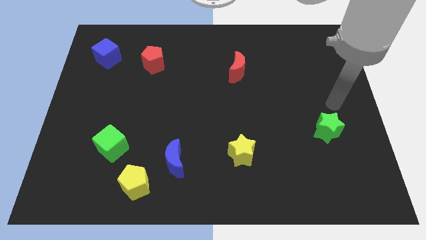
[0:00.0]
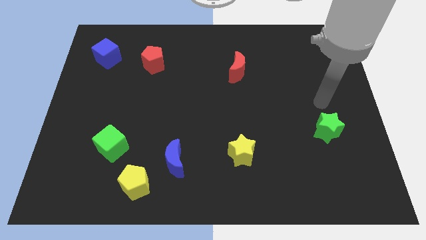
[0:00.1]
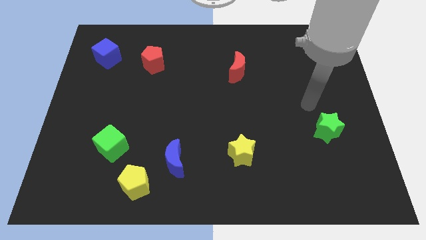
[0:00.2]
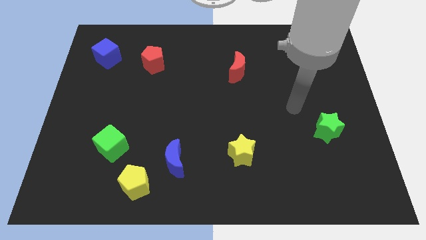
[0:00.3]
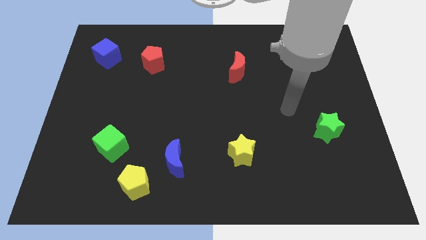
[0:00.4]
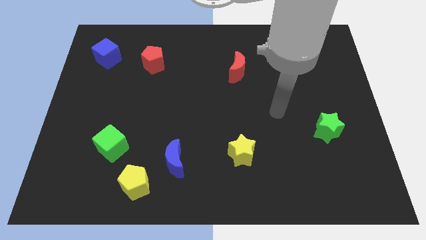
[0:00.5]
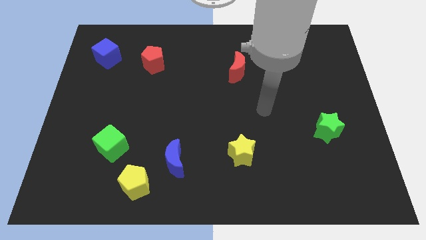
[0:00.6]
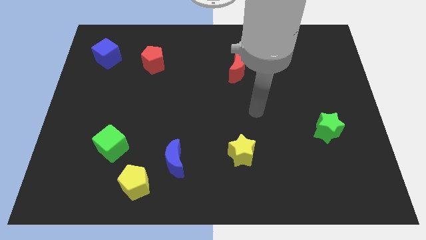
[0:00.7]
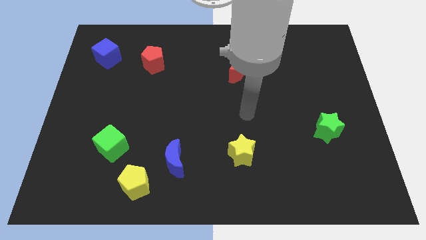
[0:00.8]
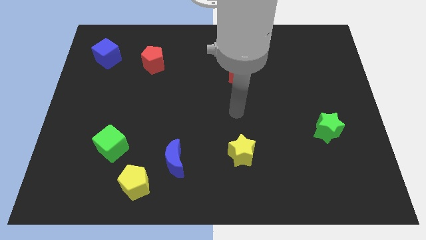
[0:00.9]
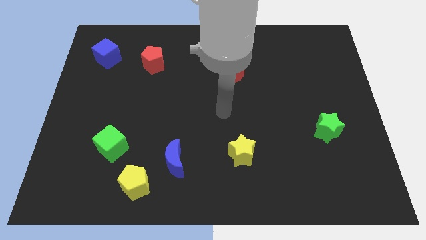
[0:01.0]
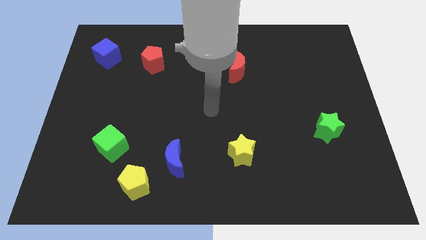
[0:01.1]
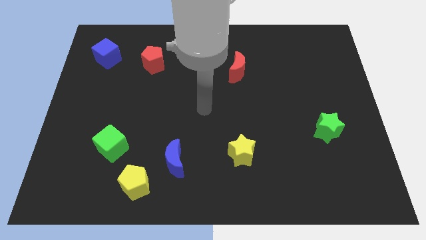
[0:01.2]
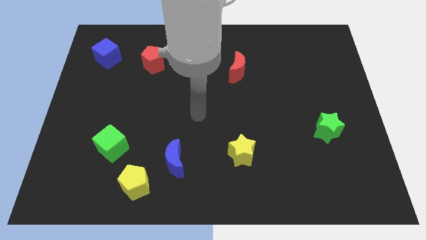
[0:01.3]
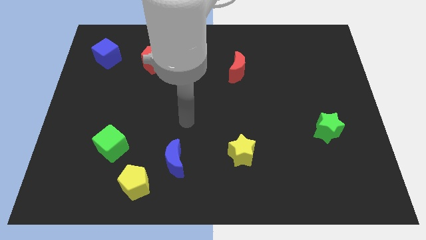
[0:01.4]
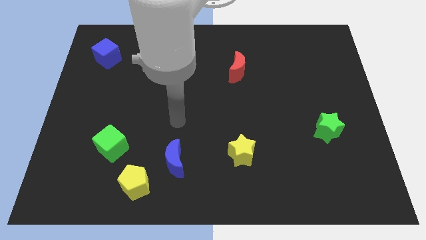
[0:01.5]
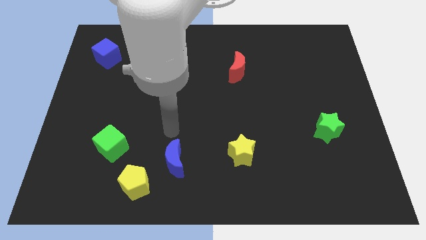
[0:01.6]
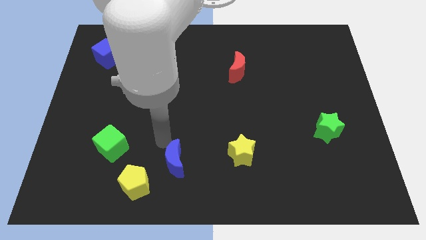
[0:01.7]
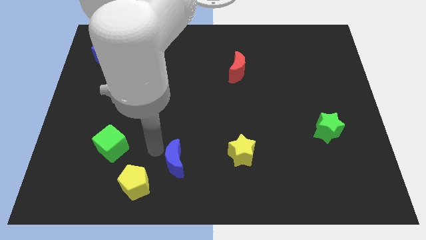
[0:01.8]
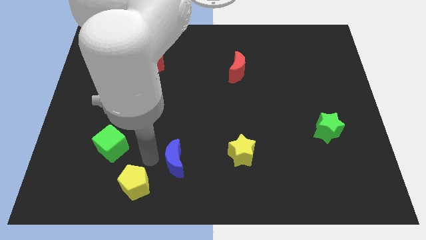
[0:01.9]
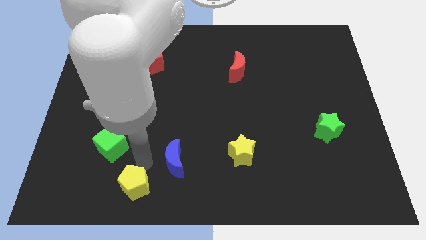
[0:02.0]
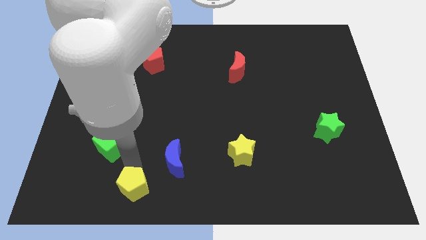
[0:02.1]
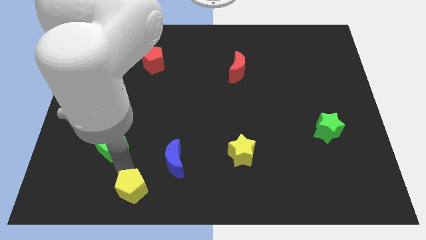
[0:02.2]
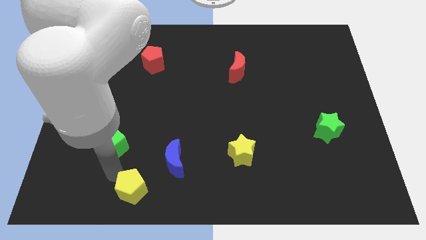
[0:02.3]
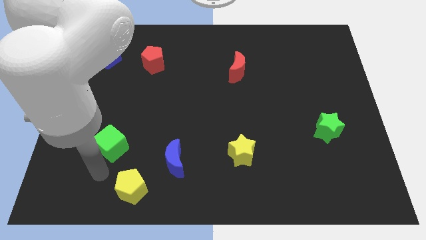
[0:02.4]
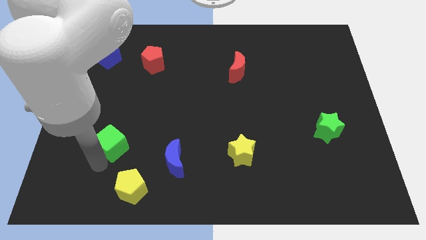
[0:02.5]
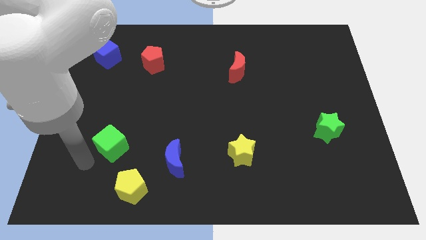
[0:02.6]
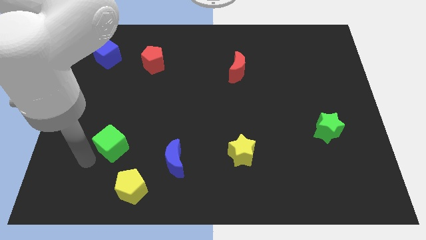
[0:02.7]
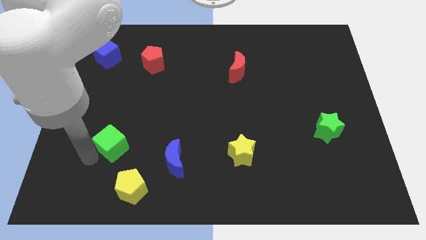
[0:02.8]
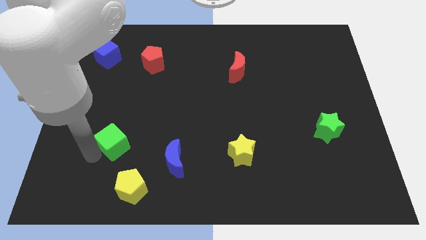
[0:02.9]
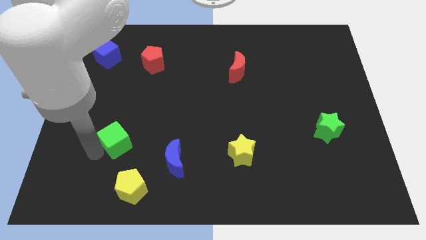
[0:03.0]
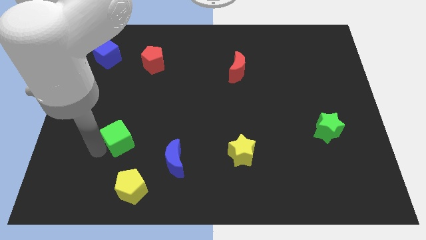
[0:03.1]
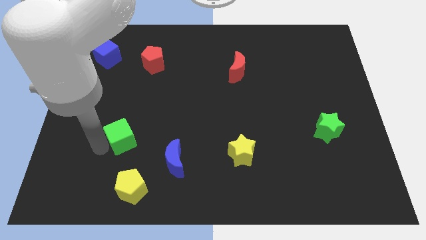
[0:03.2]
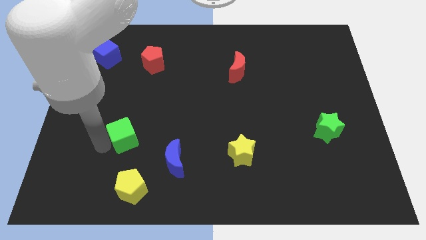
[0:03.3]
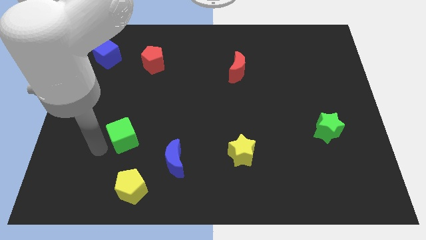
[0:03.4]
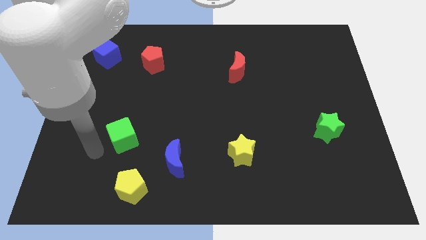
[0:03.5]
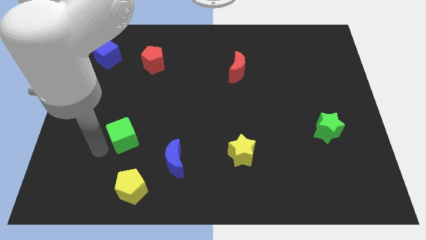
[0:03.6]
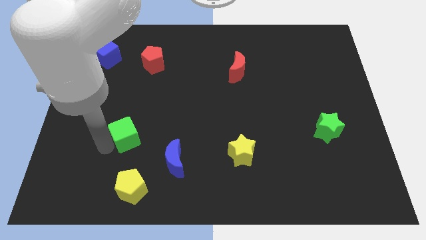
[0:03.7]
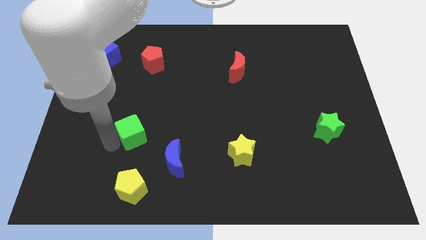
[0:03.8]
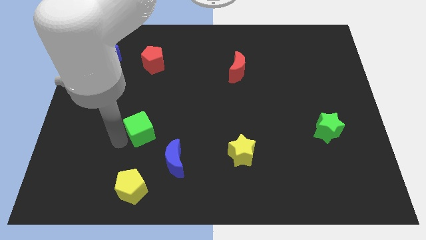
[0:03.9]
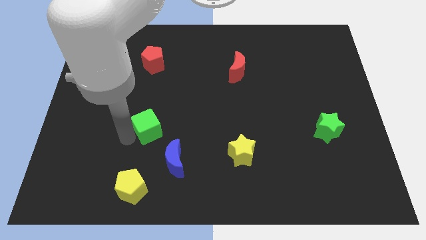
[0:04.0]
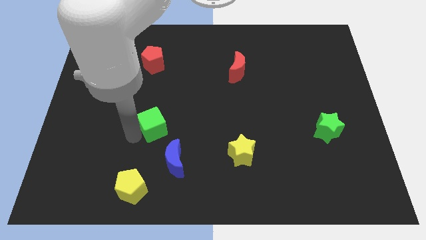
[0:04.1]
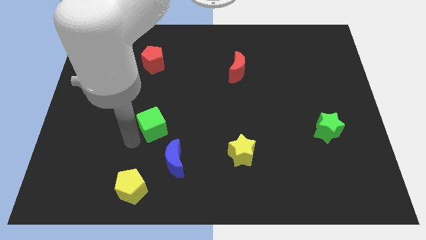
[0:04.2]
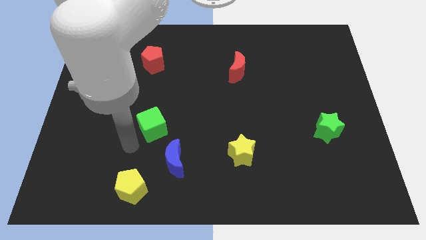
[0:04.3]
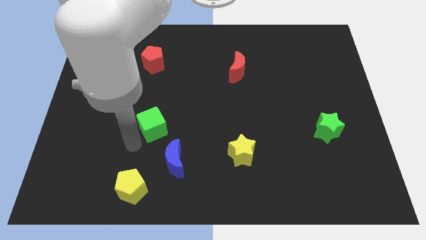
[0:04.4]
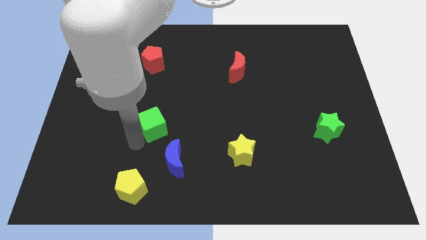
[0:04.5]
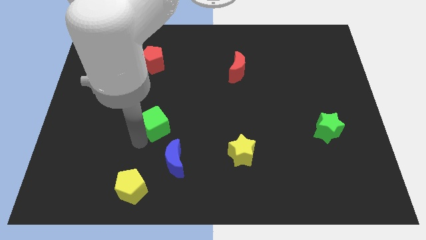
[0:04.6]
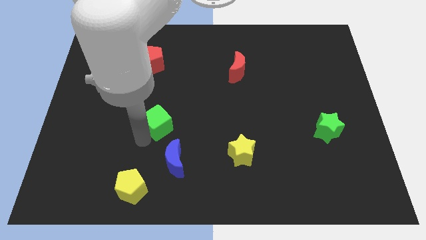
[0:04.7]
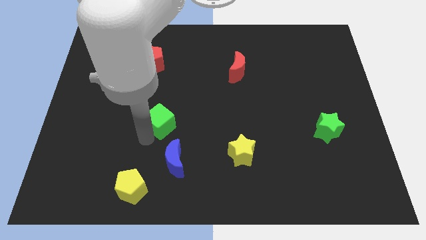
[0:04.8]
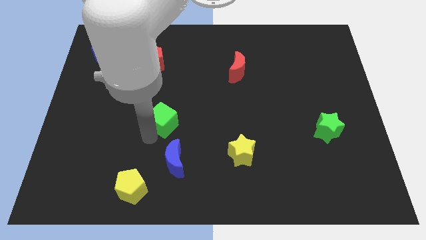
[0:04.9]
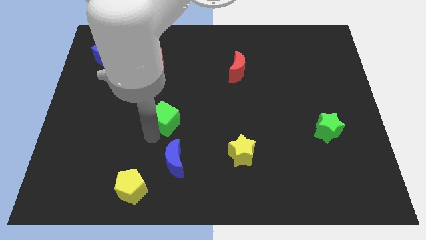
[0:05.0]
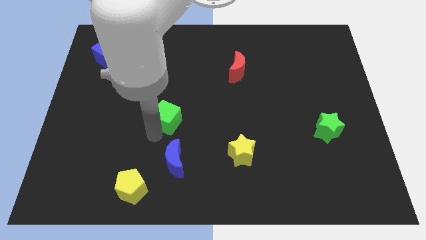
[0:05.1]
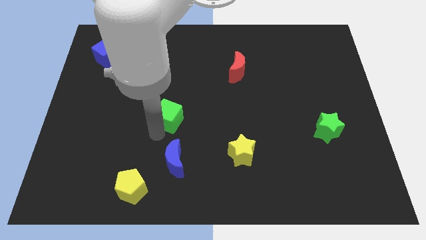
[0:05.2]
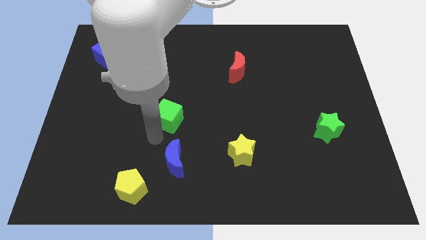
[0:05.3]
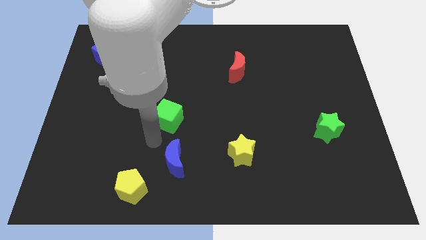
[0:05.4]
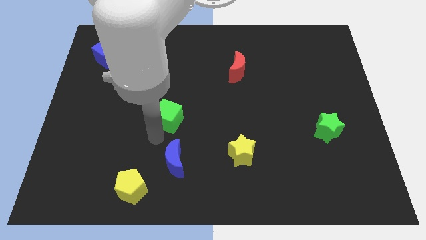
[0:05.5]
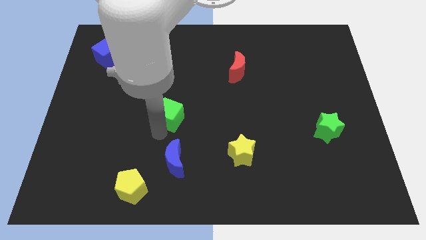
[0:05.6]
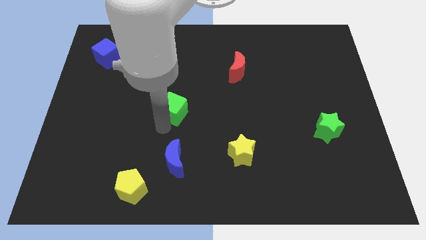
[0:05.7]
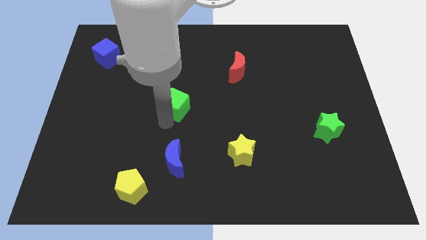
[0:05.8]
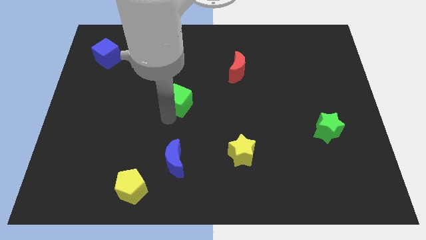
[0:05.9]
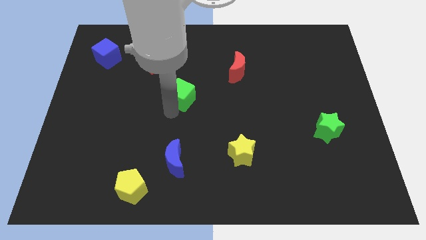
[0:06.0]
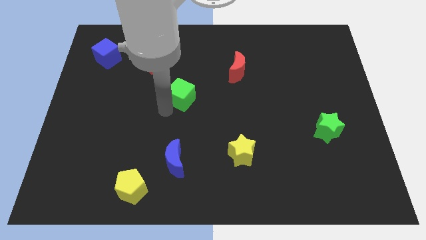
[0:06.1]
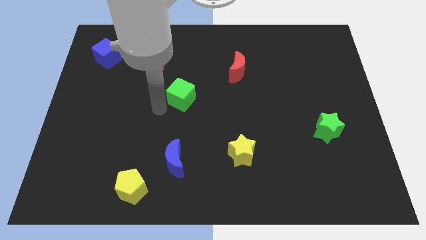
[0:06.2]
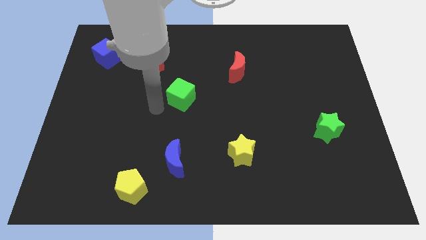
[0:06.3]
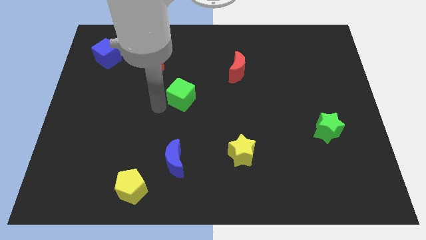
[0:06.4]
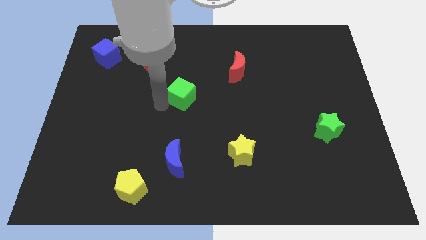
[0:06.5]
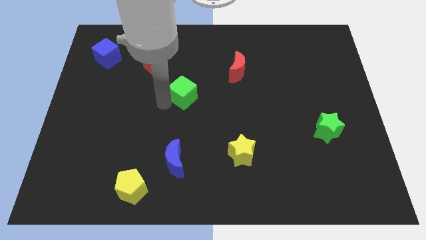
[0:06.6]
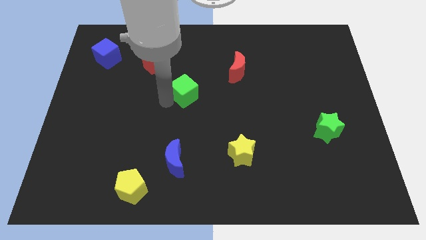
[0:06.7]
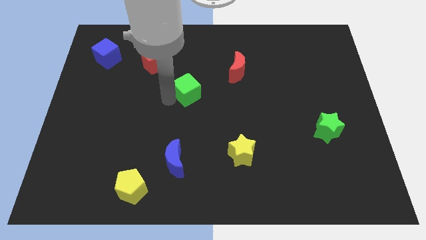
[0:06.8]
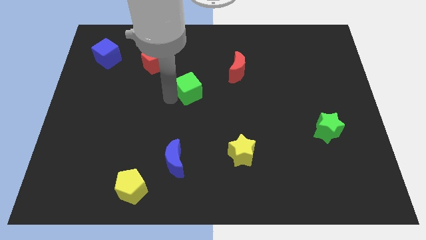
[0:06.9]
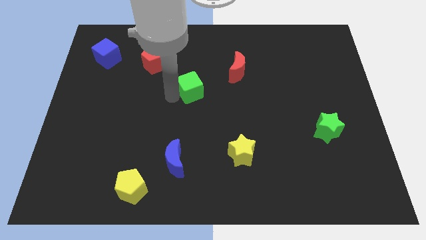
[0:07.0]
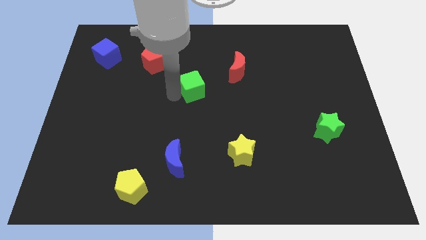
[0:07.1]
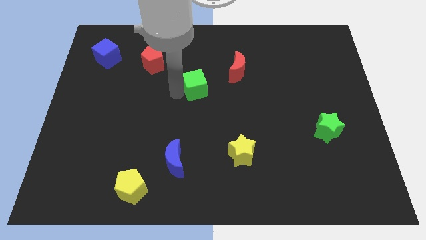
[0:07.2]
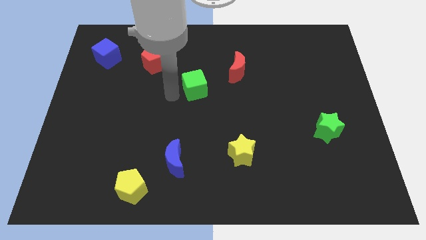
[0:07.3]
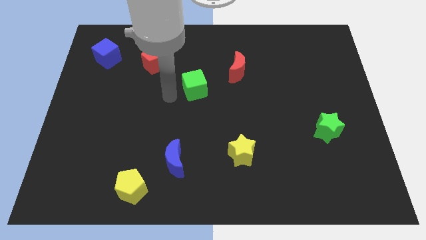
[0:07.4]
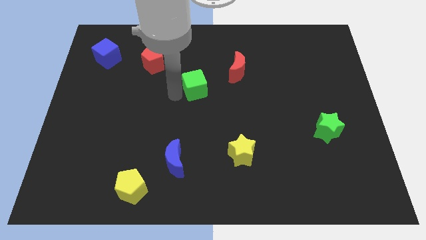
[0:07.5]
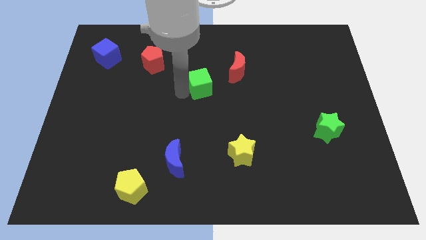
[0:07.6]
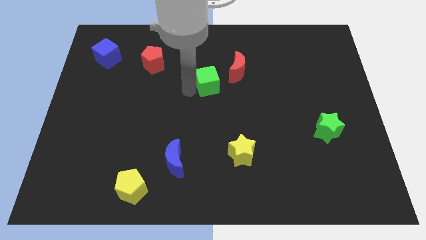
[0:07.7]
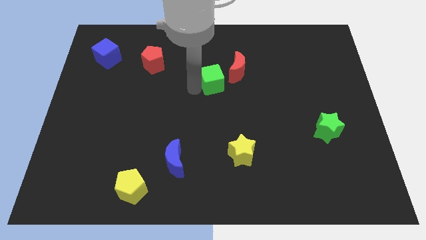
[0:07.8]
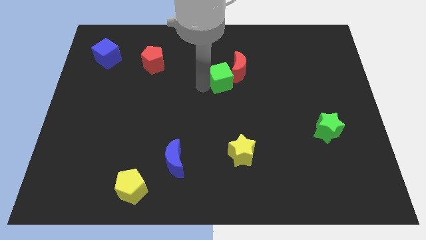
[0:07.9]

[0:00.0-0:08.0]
put the green cube to the red moon
